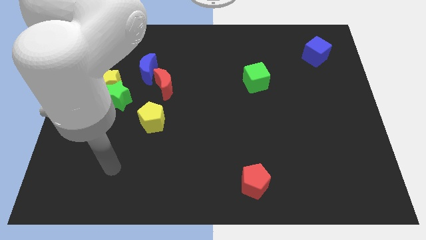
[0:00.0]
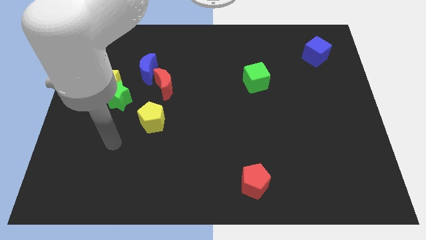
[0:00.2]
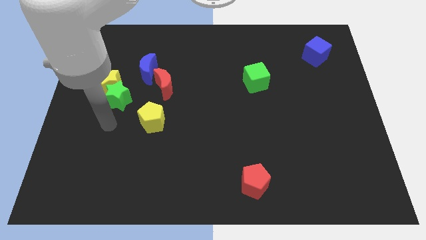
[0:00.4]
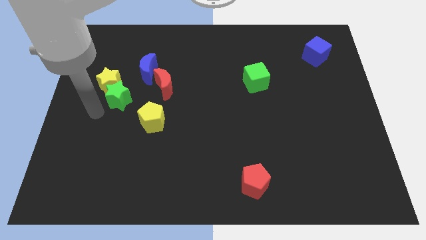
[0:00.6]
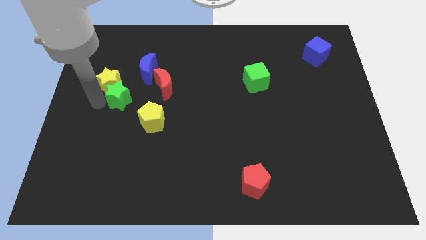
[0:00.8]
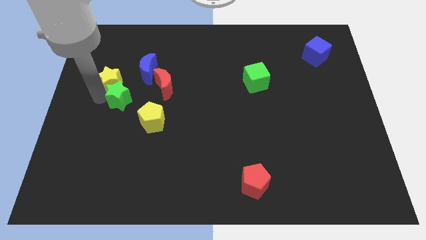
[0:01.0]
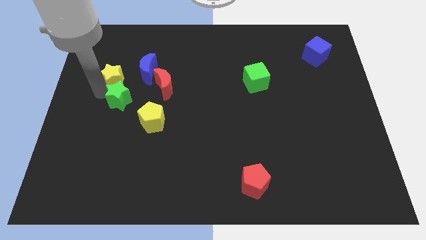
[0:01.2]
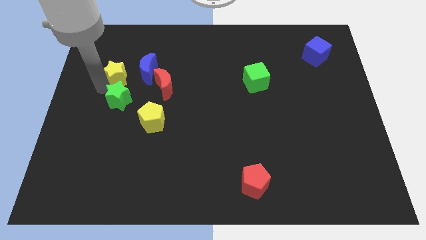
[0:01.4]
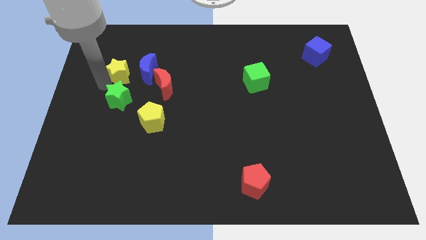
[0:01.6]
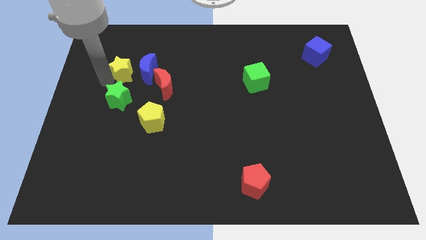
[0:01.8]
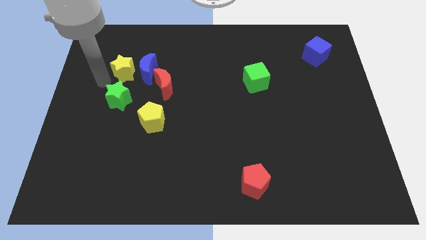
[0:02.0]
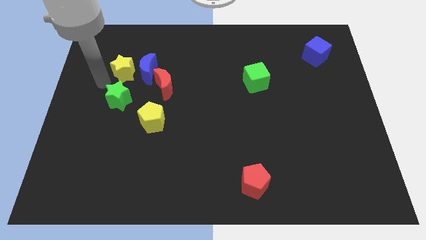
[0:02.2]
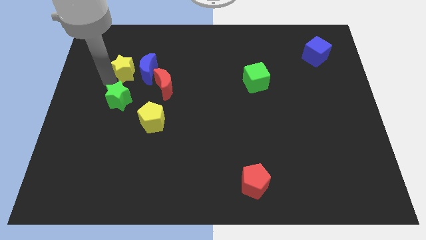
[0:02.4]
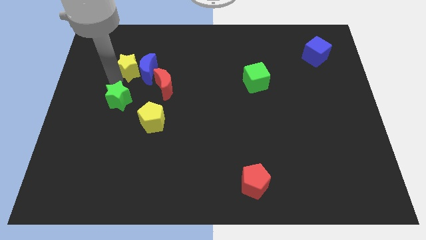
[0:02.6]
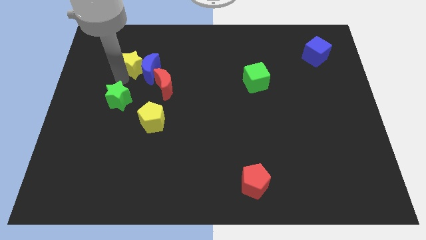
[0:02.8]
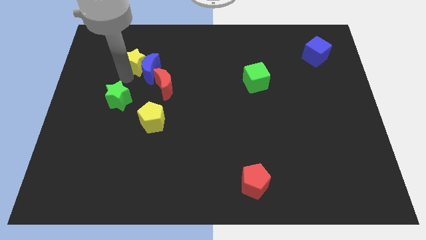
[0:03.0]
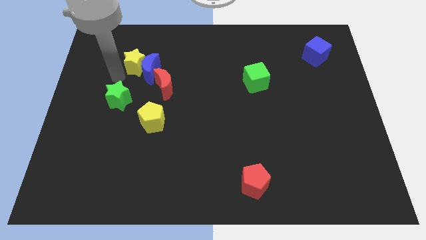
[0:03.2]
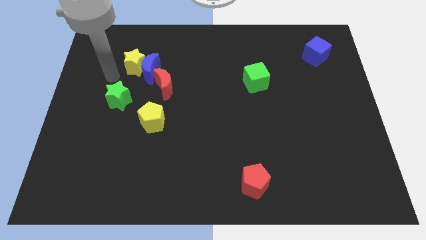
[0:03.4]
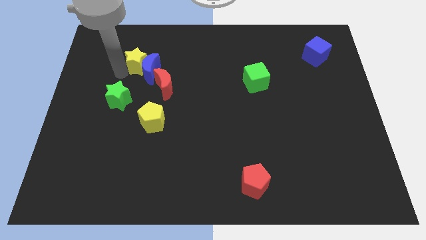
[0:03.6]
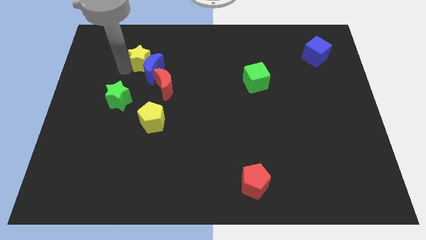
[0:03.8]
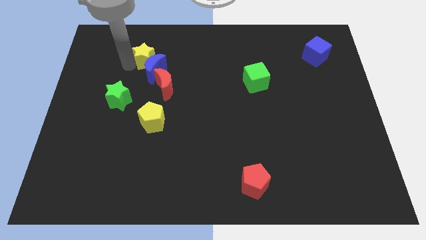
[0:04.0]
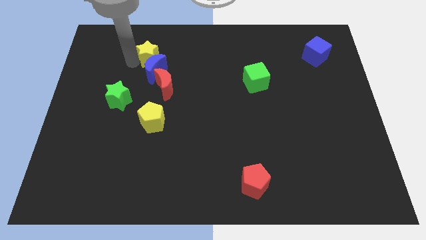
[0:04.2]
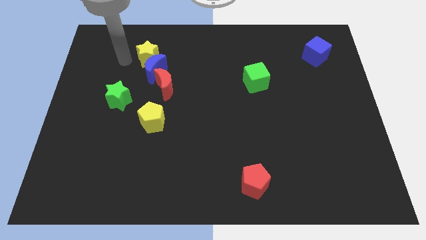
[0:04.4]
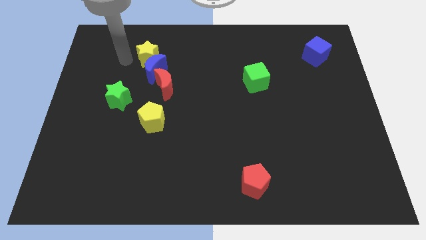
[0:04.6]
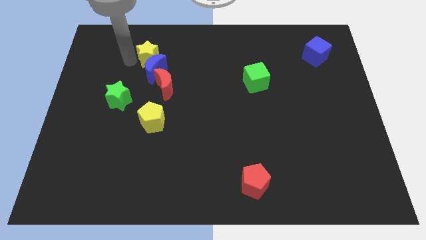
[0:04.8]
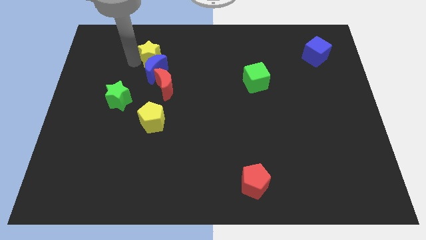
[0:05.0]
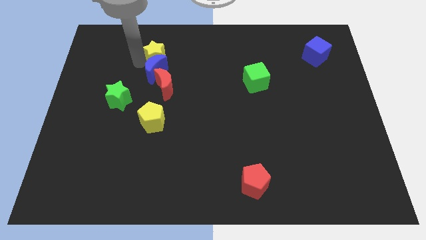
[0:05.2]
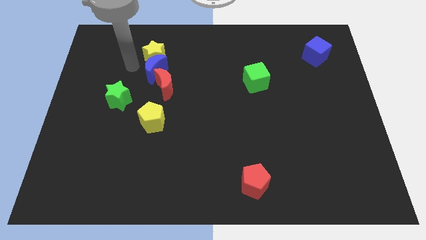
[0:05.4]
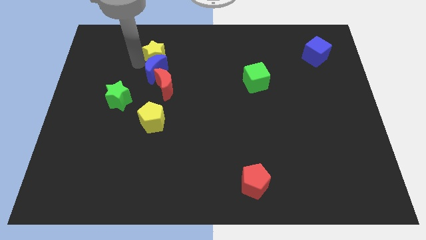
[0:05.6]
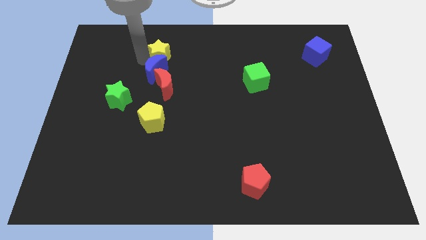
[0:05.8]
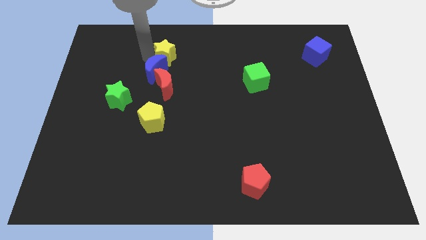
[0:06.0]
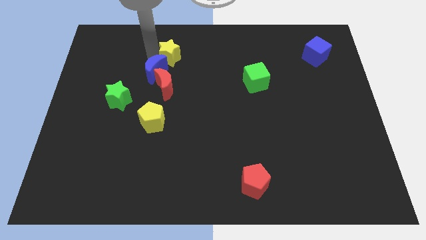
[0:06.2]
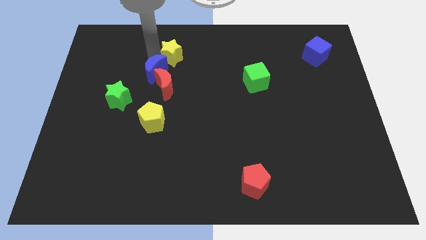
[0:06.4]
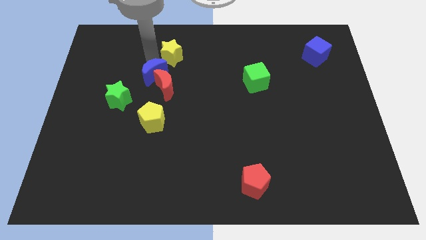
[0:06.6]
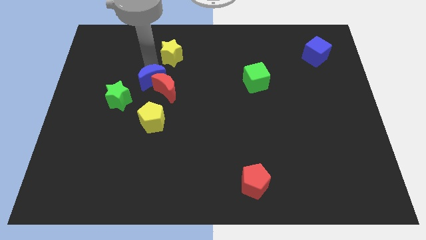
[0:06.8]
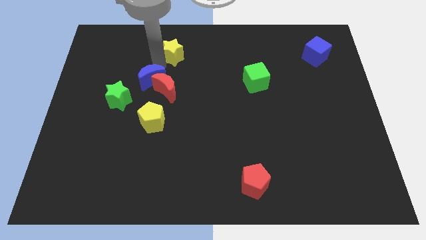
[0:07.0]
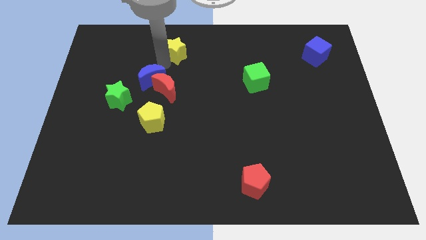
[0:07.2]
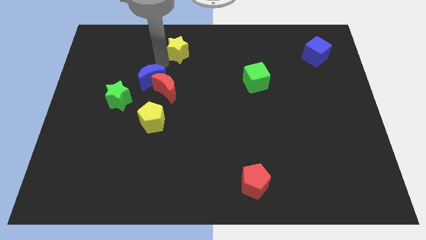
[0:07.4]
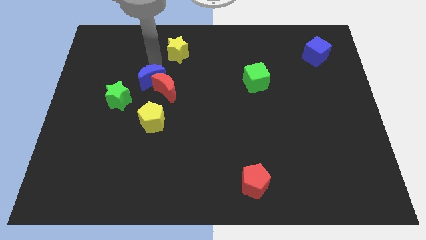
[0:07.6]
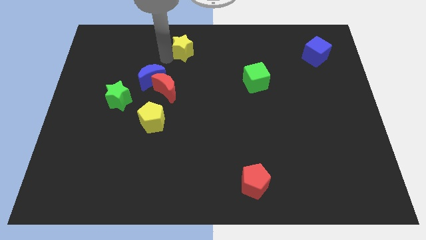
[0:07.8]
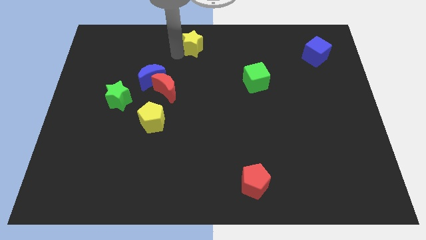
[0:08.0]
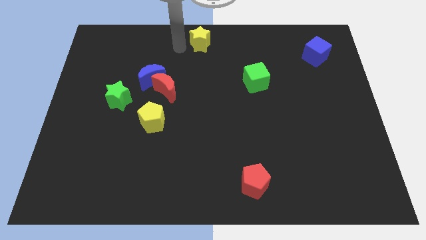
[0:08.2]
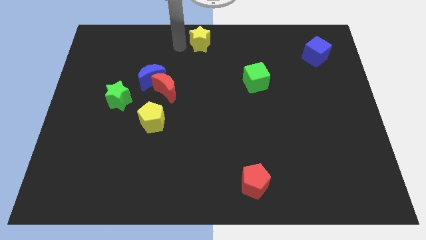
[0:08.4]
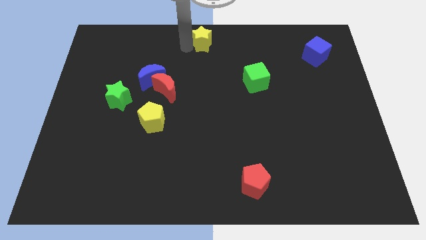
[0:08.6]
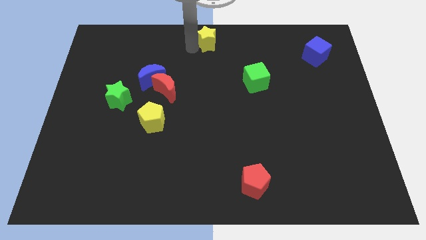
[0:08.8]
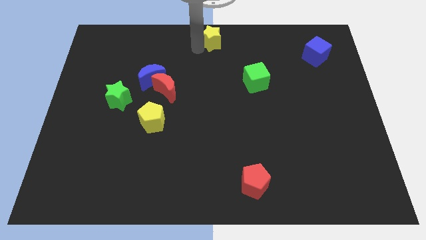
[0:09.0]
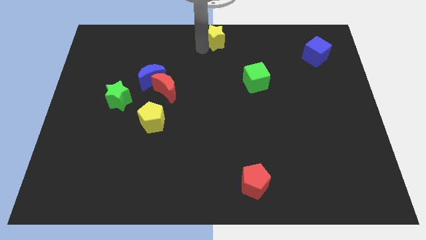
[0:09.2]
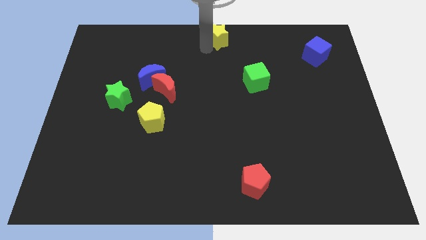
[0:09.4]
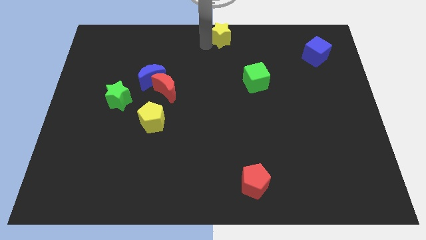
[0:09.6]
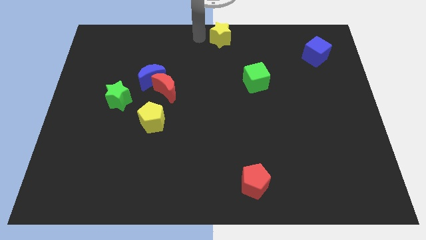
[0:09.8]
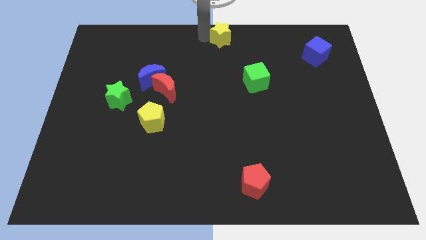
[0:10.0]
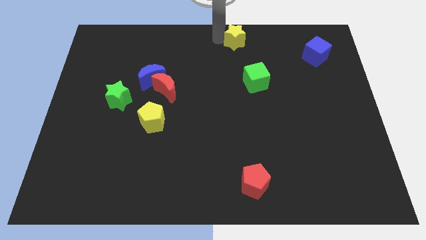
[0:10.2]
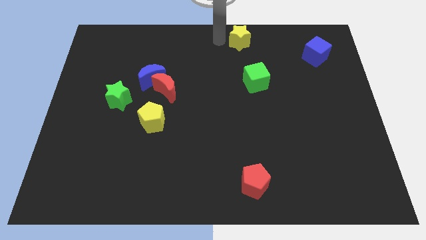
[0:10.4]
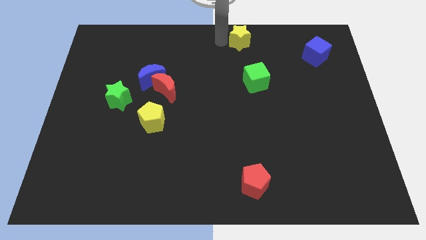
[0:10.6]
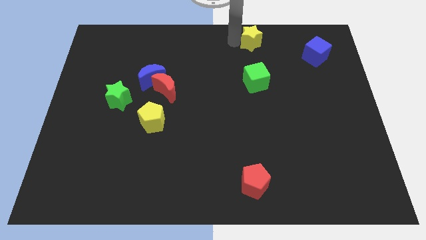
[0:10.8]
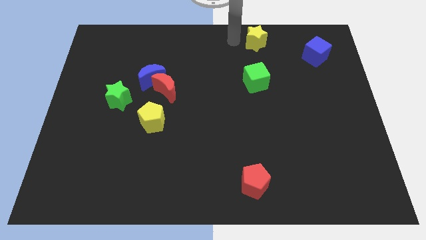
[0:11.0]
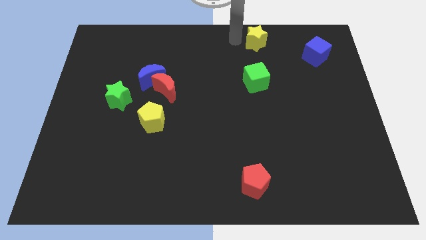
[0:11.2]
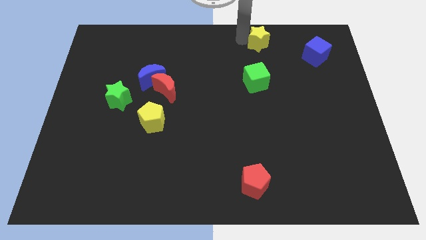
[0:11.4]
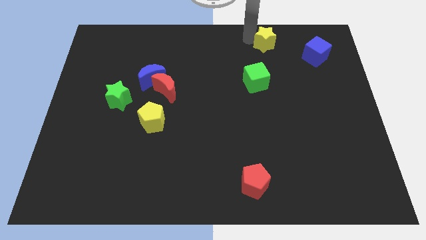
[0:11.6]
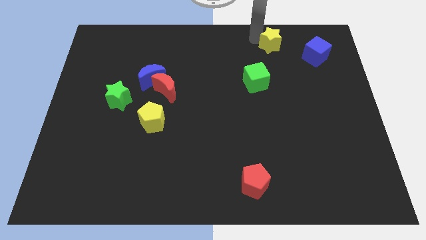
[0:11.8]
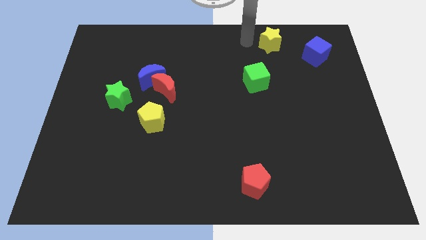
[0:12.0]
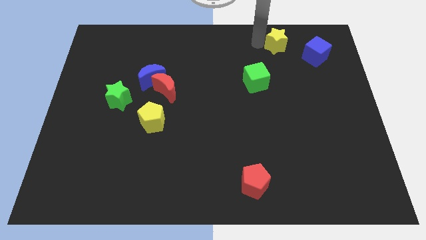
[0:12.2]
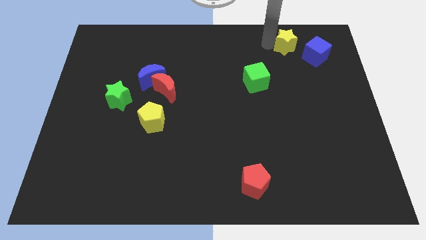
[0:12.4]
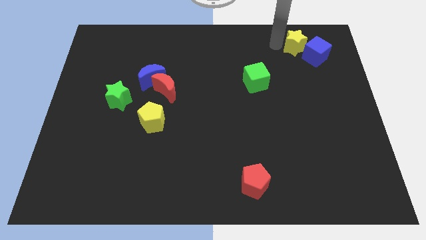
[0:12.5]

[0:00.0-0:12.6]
slide the yellow star towards the blue cube

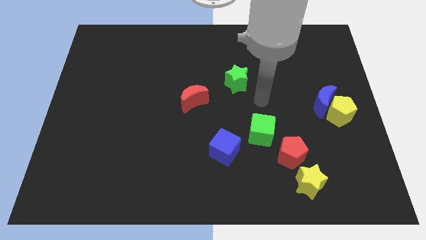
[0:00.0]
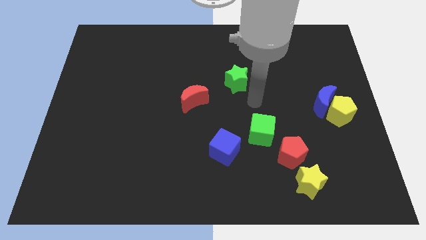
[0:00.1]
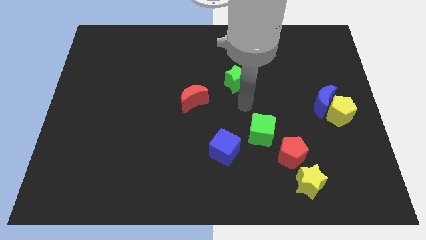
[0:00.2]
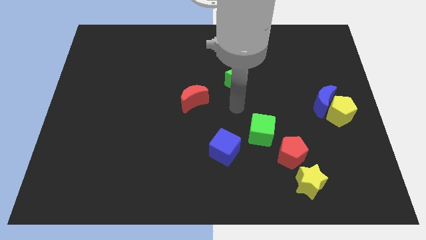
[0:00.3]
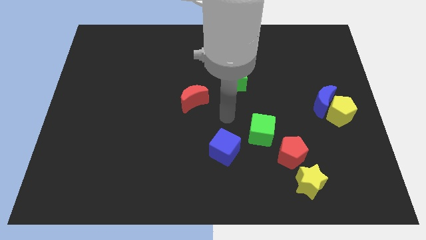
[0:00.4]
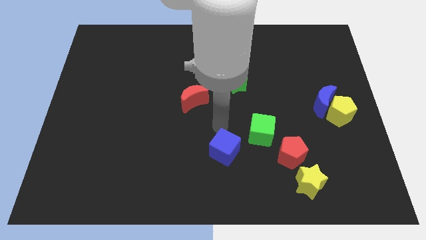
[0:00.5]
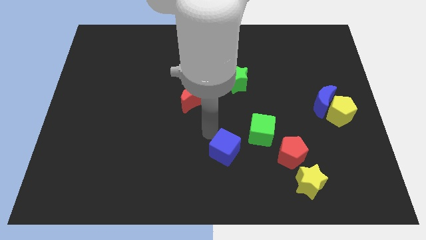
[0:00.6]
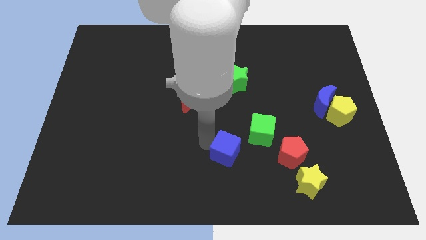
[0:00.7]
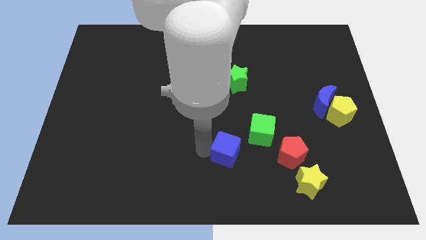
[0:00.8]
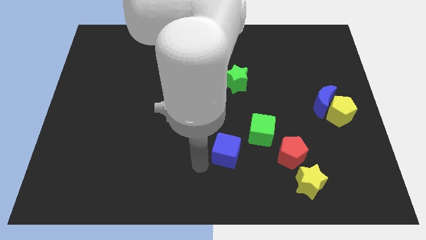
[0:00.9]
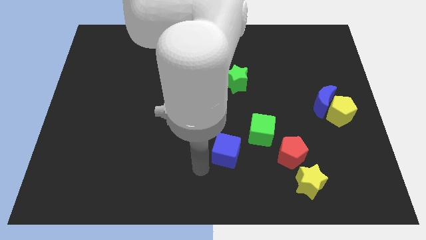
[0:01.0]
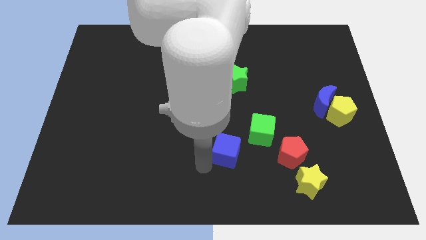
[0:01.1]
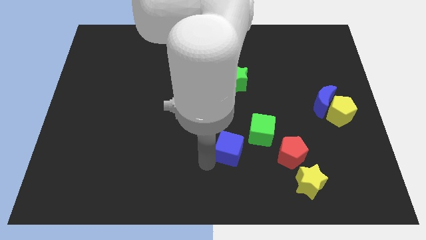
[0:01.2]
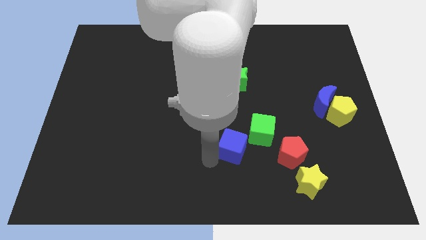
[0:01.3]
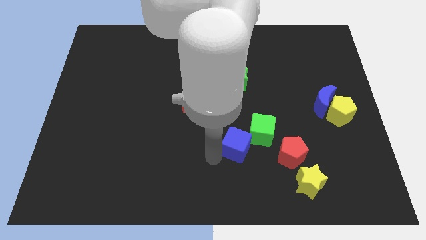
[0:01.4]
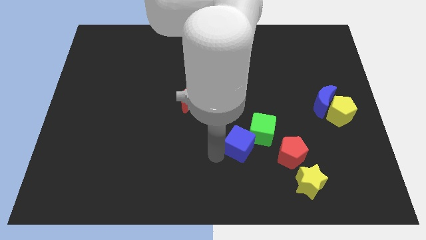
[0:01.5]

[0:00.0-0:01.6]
put the blue cube towards the green cube
